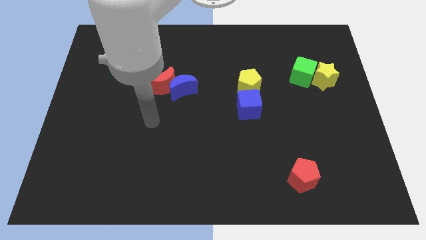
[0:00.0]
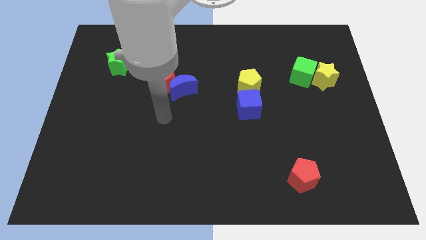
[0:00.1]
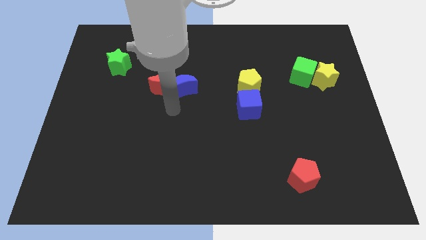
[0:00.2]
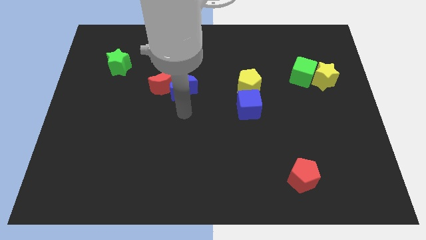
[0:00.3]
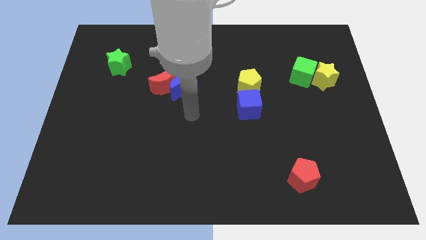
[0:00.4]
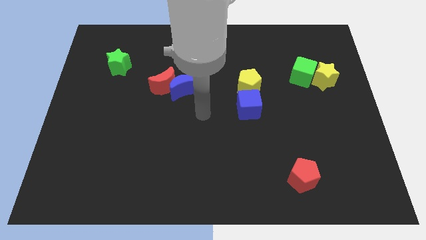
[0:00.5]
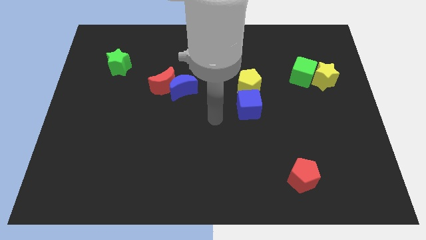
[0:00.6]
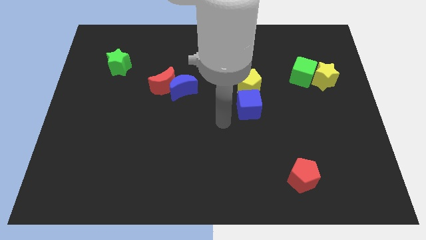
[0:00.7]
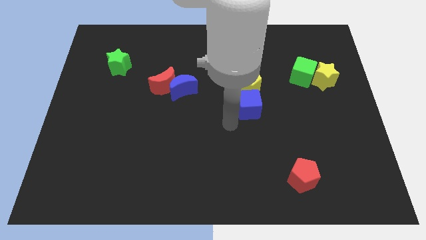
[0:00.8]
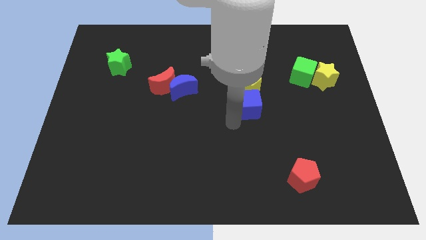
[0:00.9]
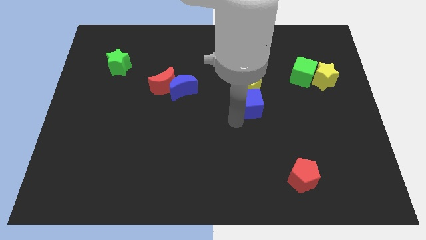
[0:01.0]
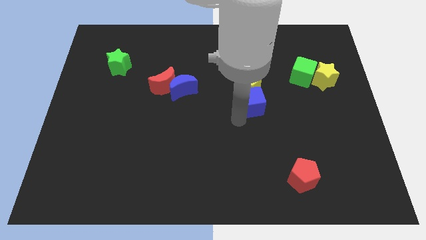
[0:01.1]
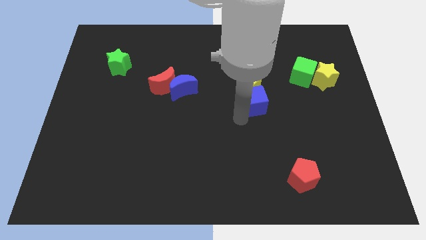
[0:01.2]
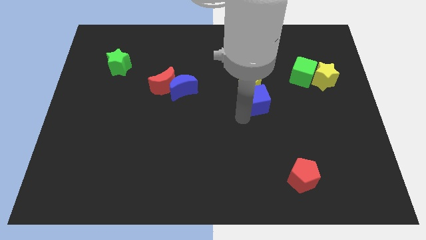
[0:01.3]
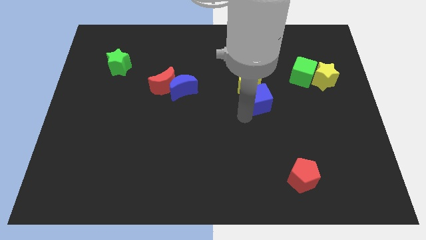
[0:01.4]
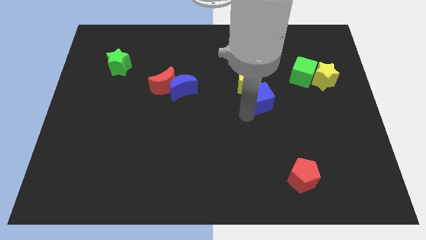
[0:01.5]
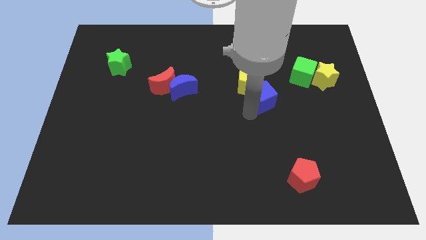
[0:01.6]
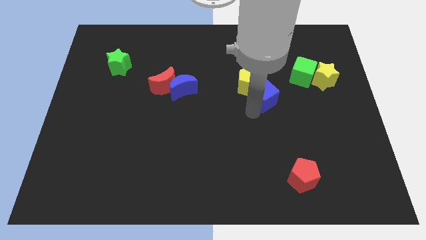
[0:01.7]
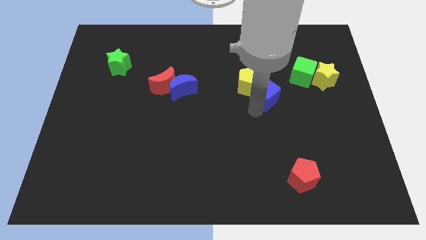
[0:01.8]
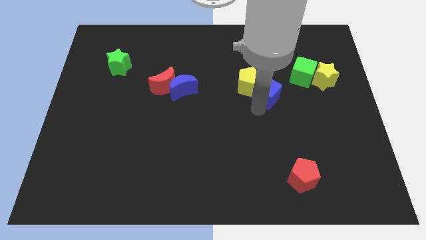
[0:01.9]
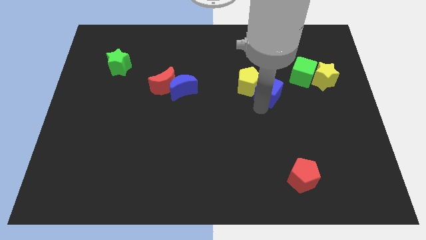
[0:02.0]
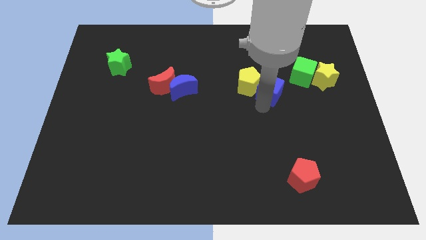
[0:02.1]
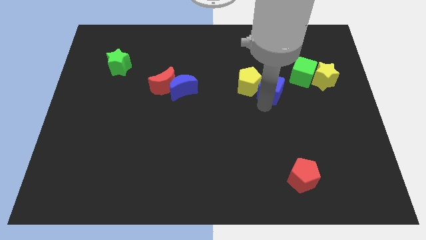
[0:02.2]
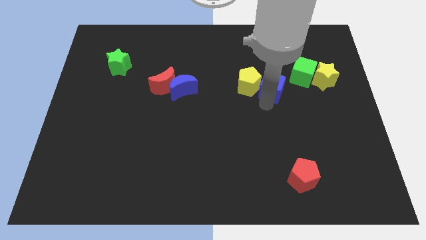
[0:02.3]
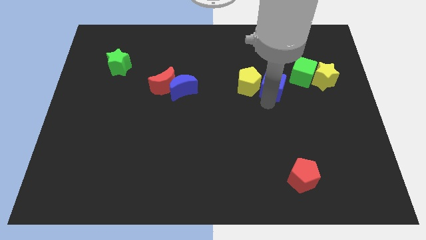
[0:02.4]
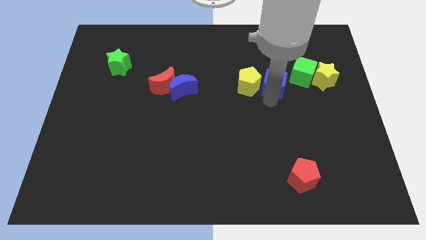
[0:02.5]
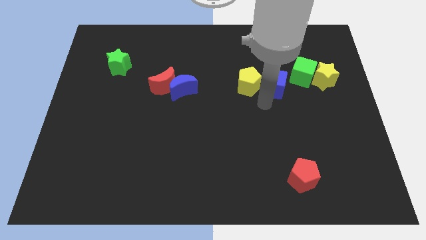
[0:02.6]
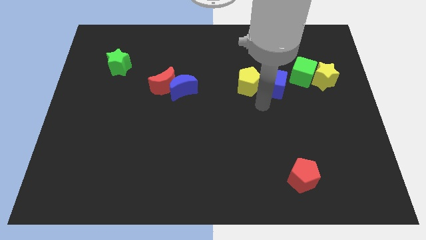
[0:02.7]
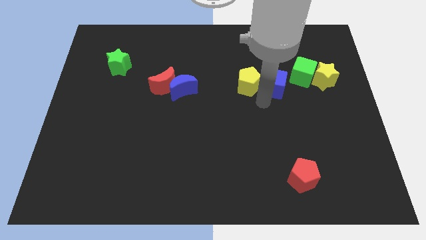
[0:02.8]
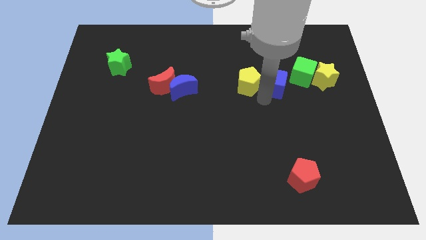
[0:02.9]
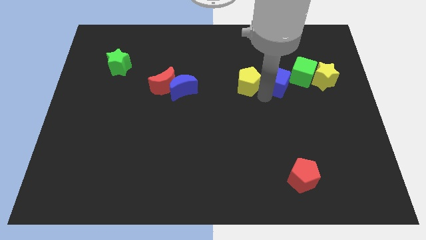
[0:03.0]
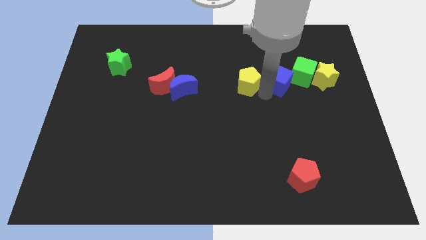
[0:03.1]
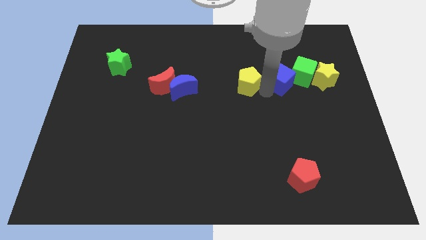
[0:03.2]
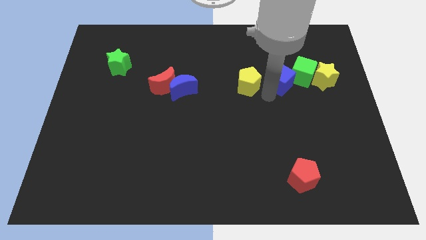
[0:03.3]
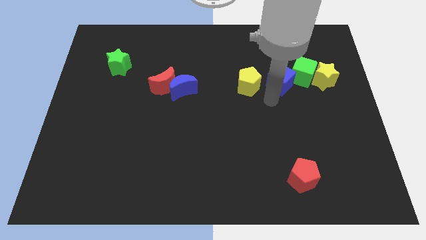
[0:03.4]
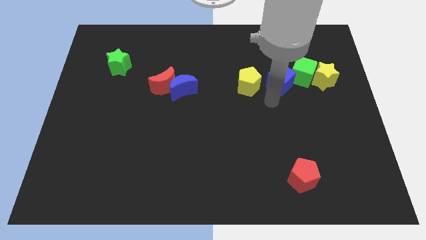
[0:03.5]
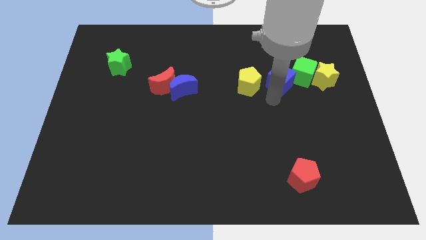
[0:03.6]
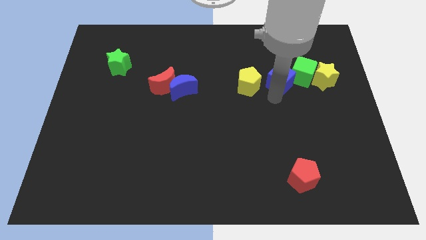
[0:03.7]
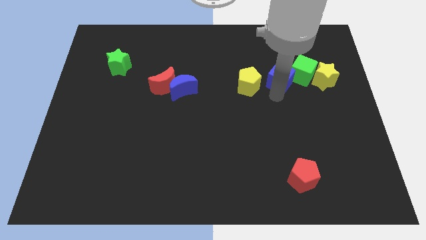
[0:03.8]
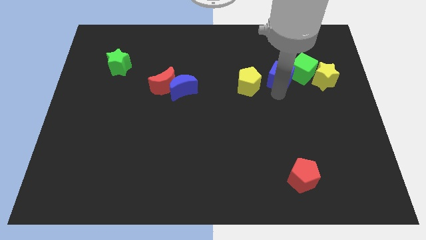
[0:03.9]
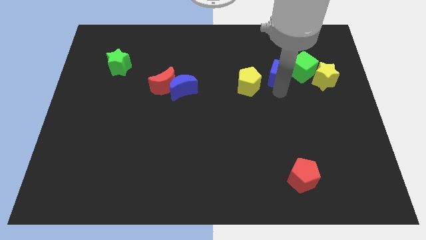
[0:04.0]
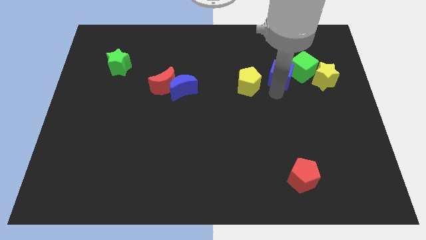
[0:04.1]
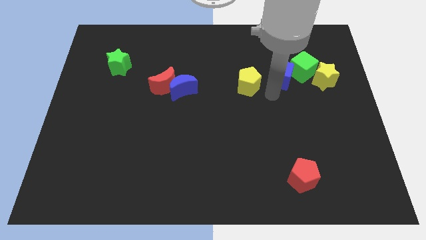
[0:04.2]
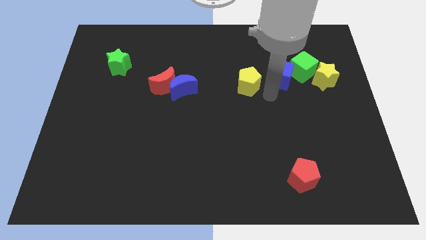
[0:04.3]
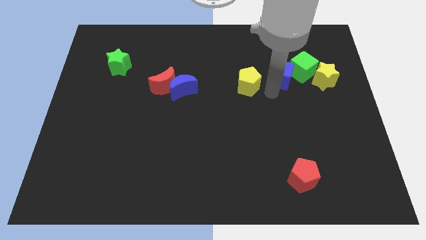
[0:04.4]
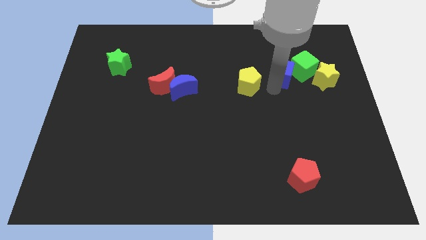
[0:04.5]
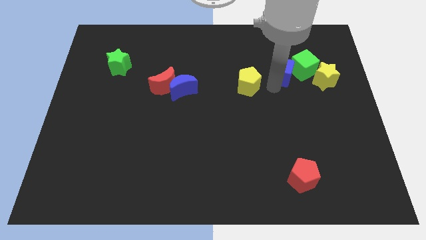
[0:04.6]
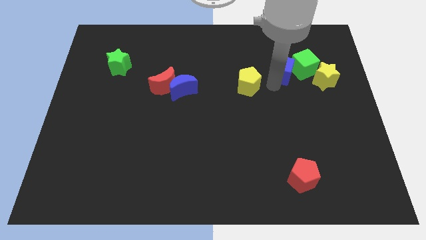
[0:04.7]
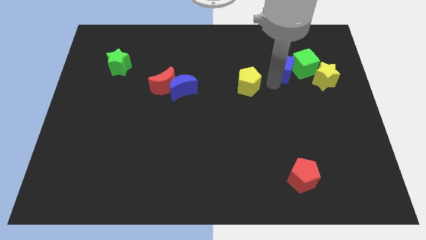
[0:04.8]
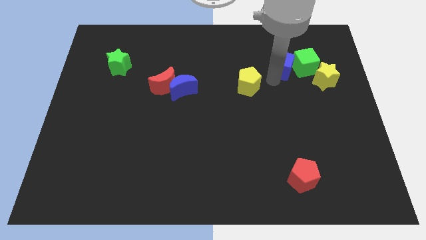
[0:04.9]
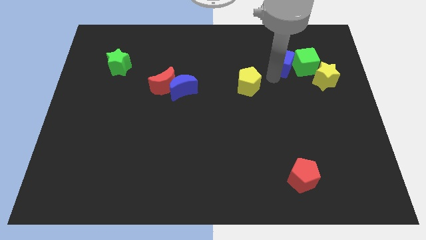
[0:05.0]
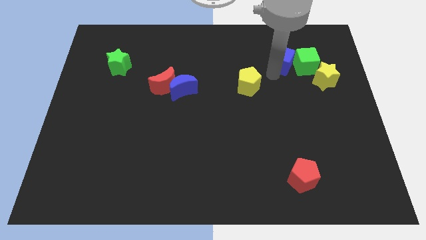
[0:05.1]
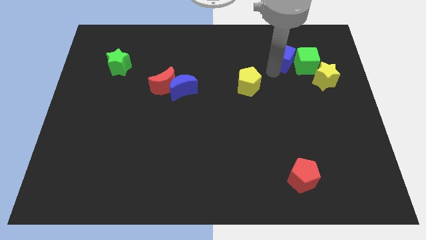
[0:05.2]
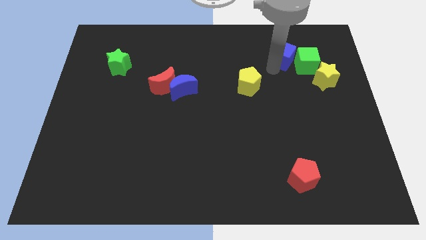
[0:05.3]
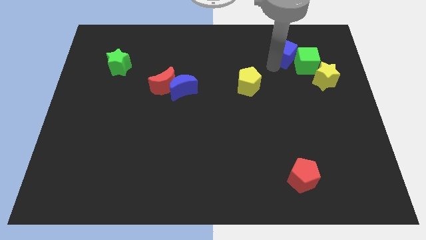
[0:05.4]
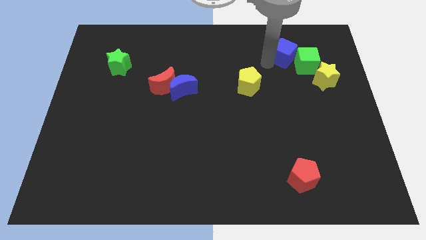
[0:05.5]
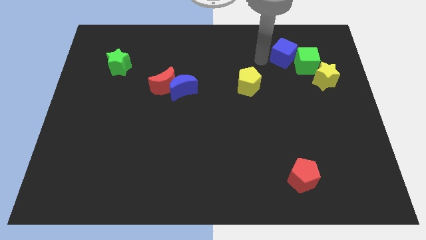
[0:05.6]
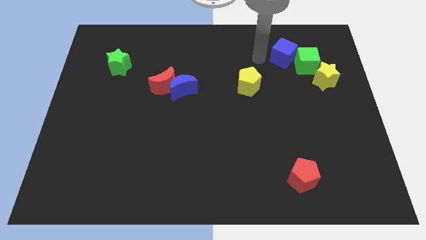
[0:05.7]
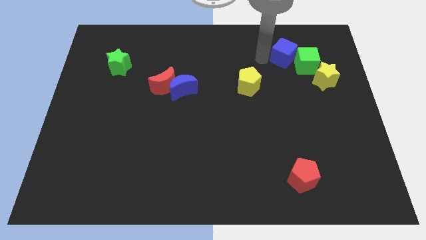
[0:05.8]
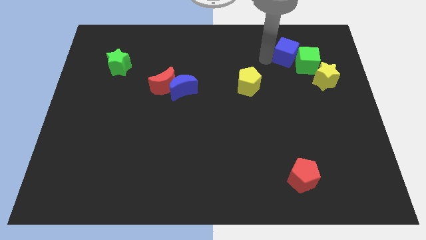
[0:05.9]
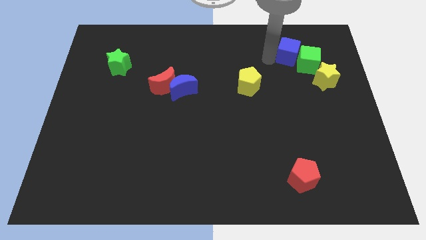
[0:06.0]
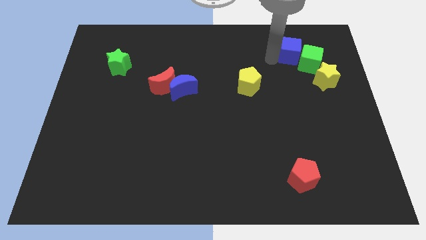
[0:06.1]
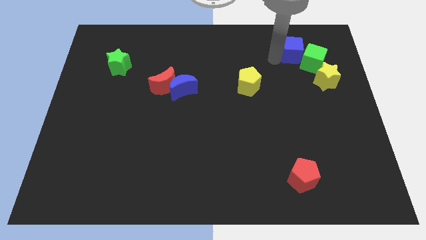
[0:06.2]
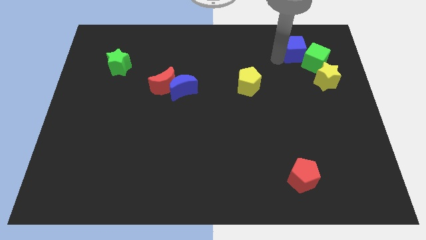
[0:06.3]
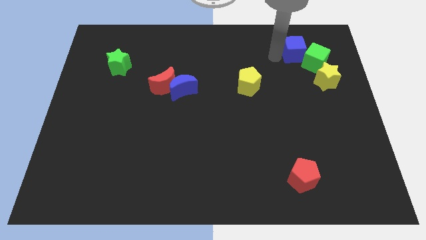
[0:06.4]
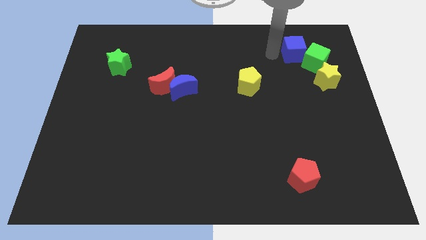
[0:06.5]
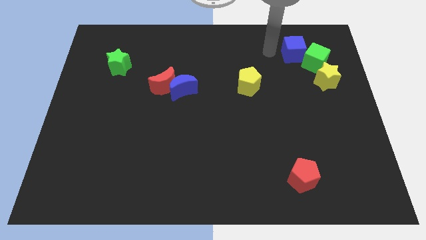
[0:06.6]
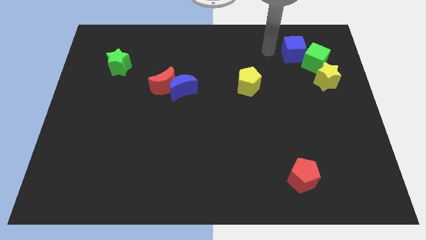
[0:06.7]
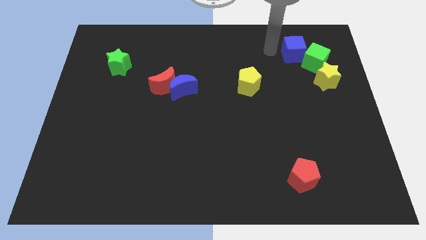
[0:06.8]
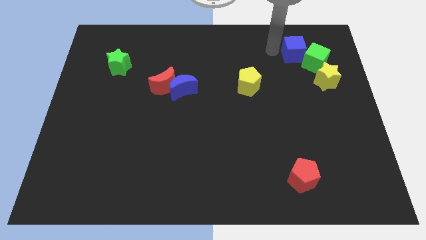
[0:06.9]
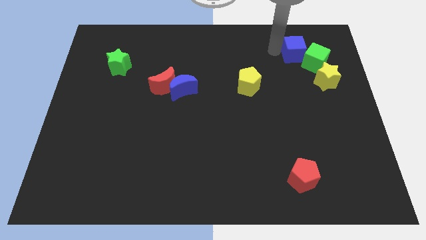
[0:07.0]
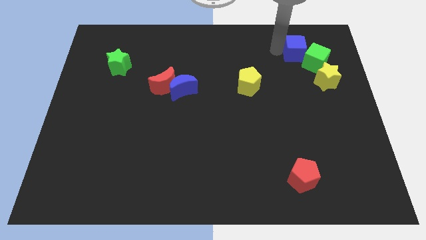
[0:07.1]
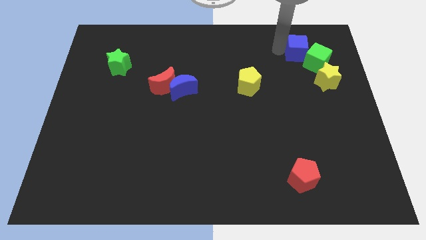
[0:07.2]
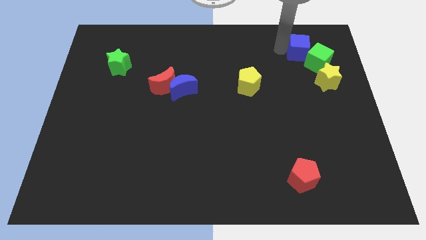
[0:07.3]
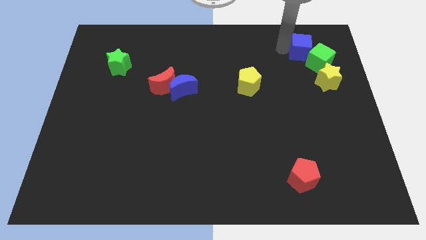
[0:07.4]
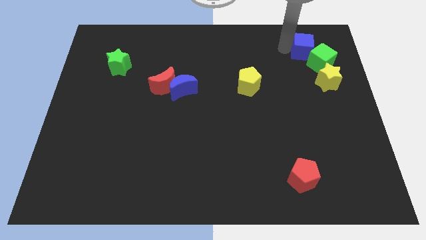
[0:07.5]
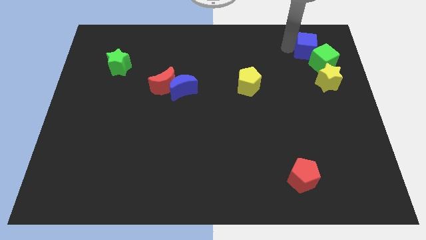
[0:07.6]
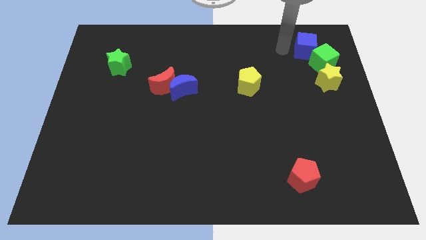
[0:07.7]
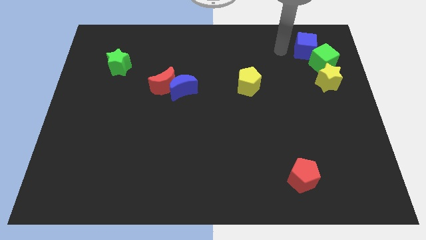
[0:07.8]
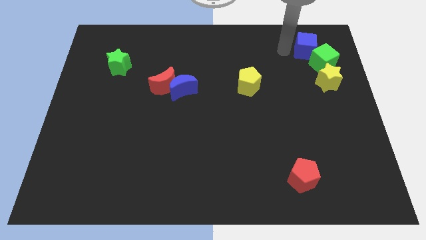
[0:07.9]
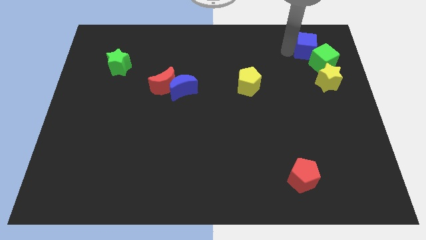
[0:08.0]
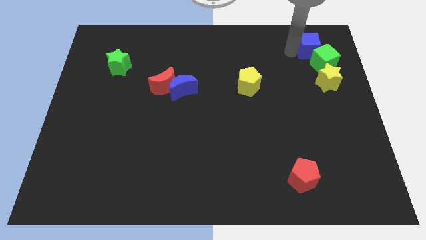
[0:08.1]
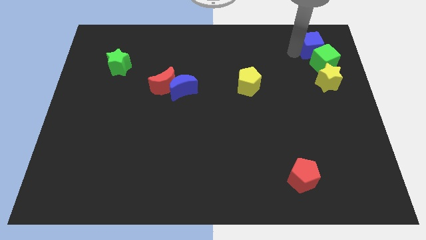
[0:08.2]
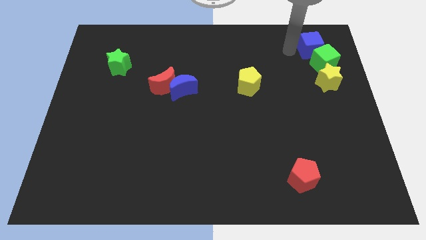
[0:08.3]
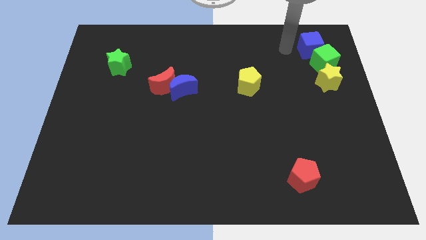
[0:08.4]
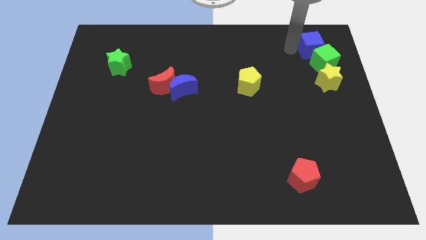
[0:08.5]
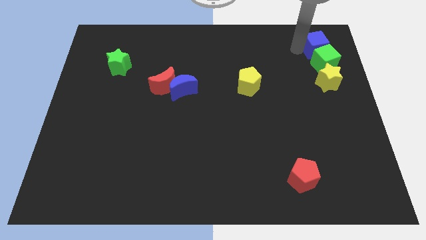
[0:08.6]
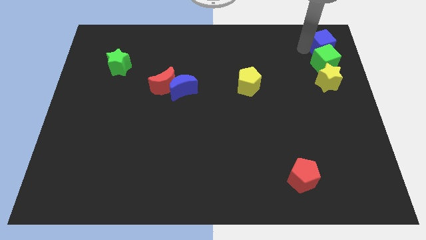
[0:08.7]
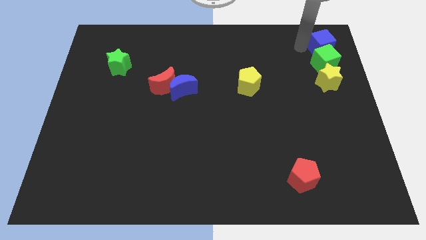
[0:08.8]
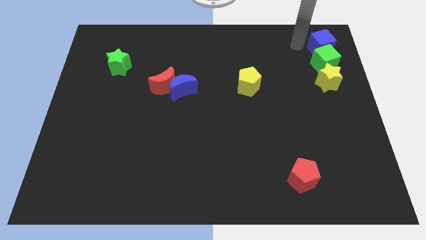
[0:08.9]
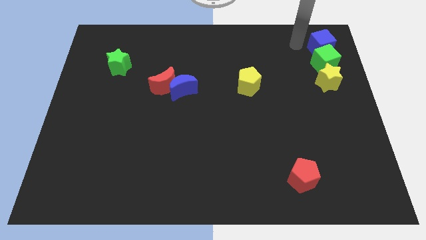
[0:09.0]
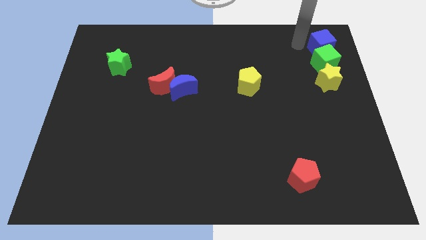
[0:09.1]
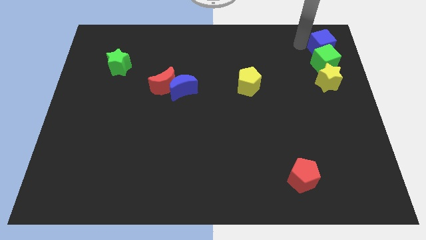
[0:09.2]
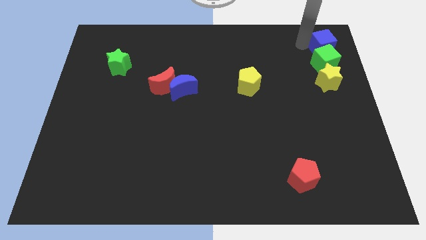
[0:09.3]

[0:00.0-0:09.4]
put the blue cube to the upper right corner
